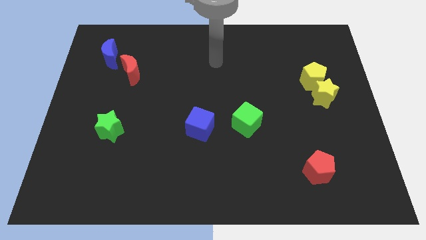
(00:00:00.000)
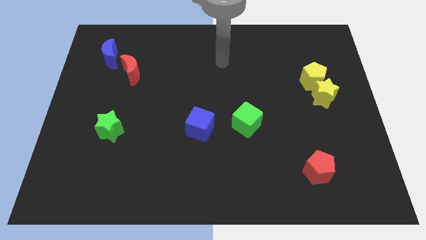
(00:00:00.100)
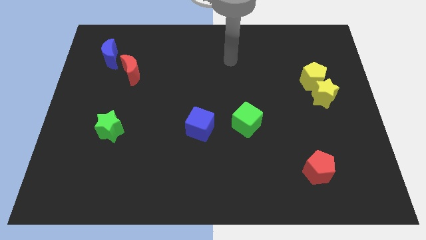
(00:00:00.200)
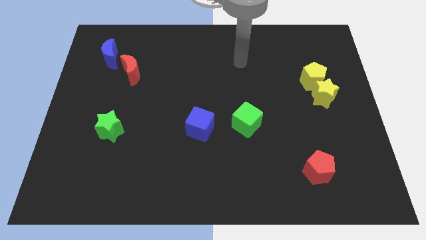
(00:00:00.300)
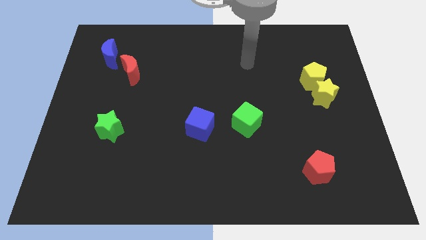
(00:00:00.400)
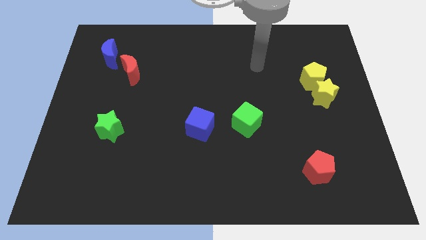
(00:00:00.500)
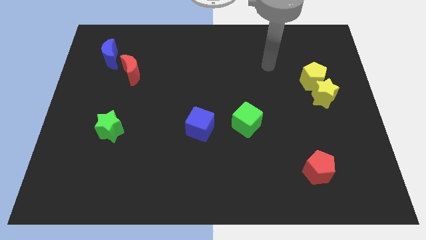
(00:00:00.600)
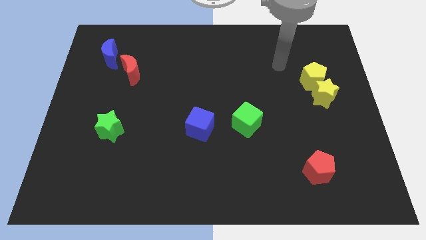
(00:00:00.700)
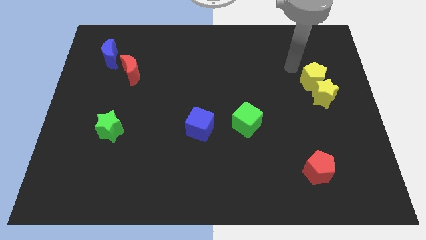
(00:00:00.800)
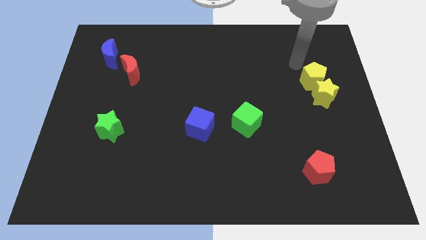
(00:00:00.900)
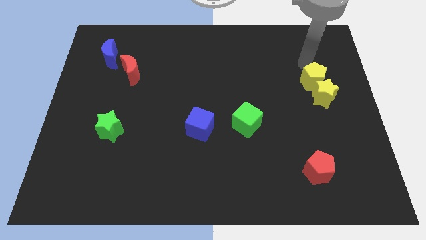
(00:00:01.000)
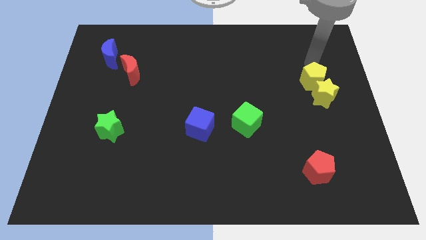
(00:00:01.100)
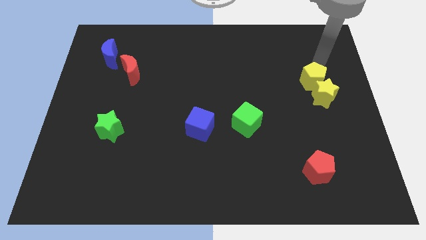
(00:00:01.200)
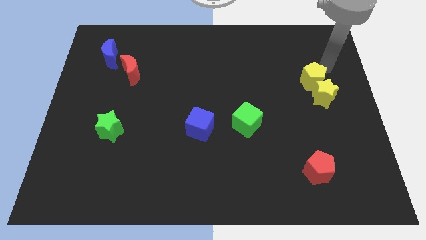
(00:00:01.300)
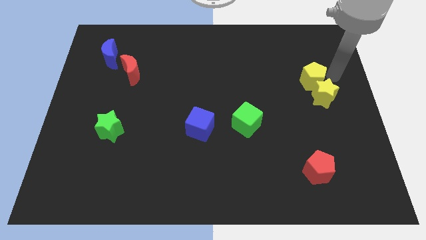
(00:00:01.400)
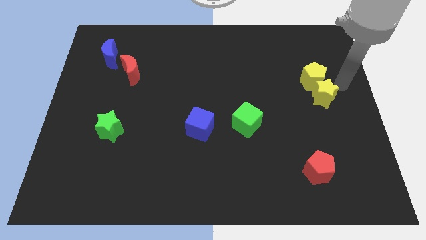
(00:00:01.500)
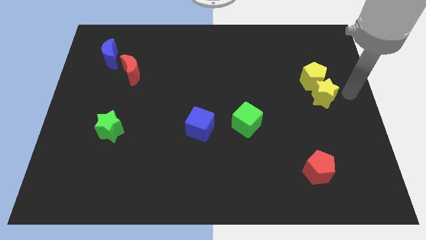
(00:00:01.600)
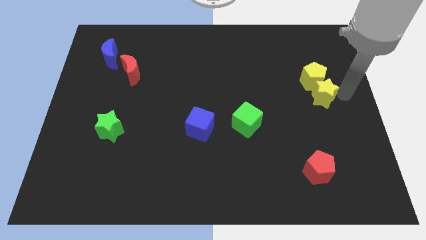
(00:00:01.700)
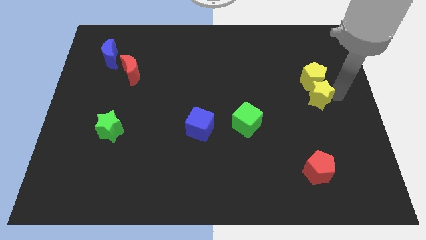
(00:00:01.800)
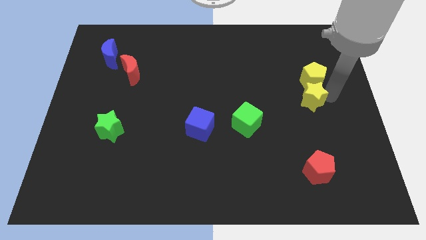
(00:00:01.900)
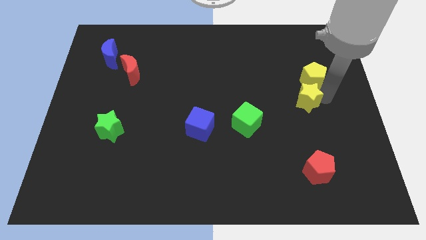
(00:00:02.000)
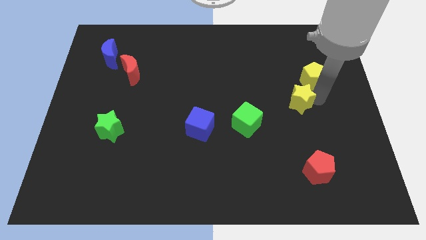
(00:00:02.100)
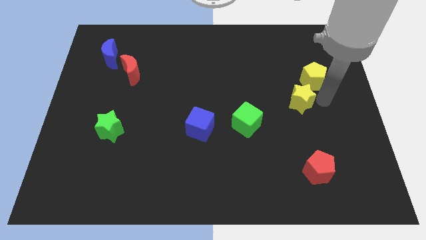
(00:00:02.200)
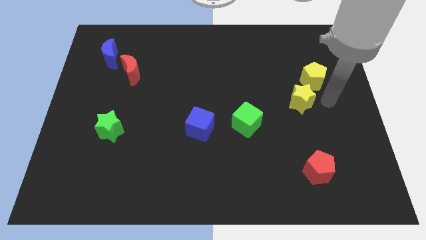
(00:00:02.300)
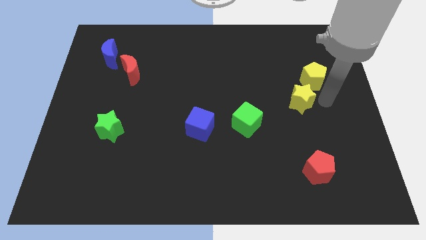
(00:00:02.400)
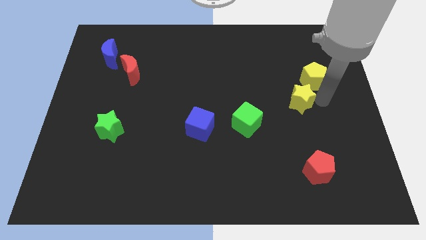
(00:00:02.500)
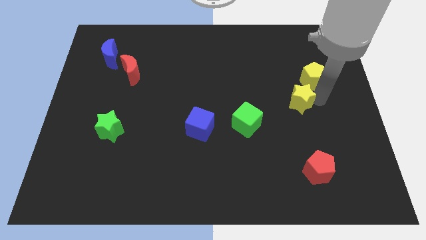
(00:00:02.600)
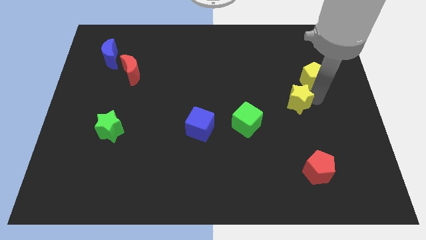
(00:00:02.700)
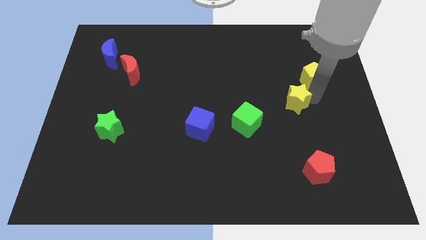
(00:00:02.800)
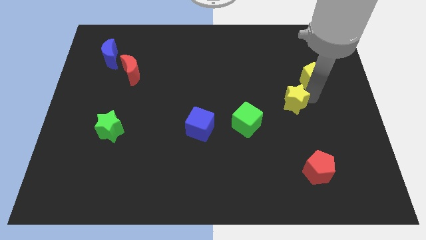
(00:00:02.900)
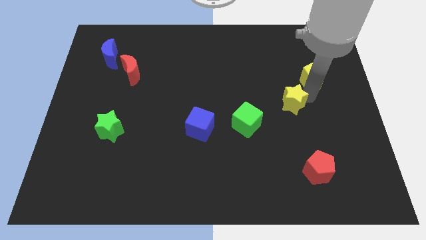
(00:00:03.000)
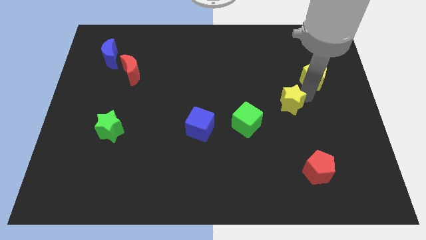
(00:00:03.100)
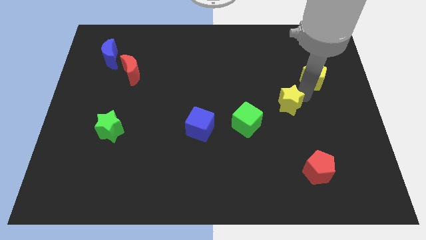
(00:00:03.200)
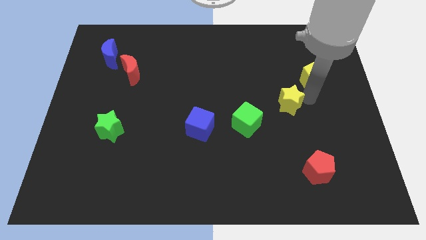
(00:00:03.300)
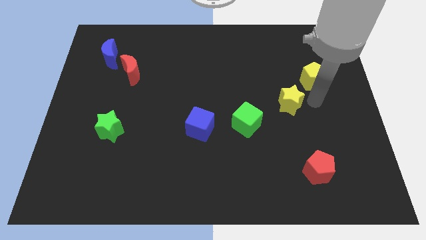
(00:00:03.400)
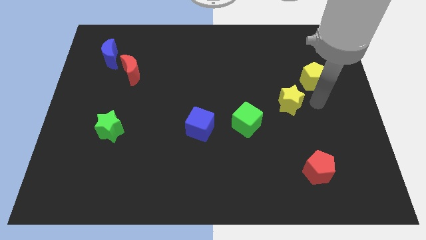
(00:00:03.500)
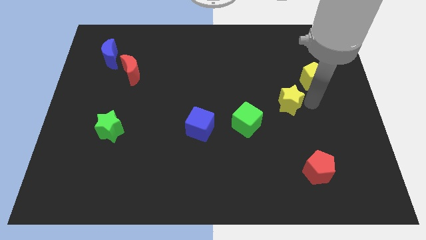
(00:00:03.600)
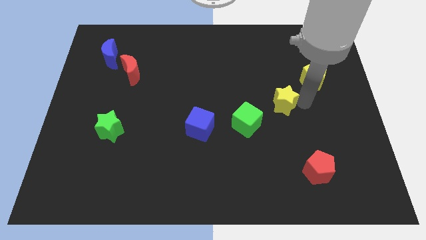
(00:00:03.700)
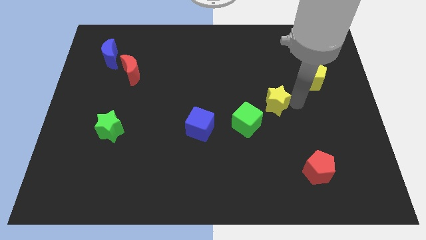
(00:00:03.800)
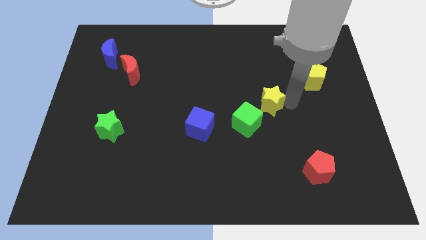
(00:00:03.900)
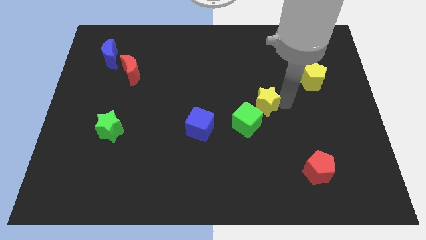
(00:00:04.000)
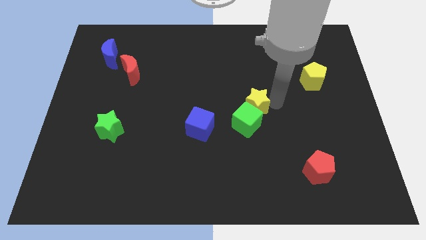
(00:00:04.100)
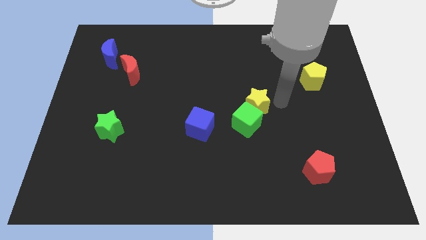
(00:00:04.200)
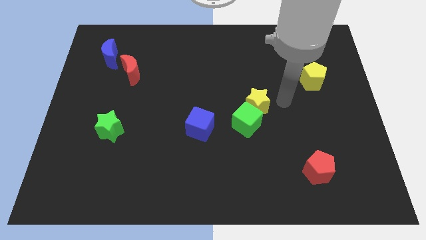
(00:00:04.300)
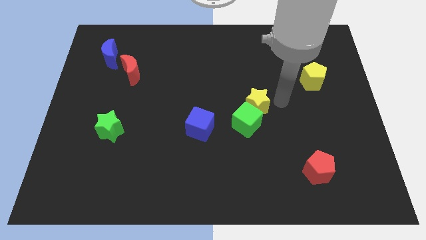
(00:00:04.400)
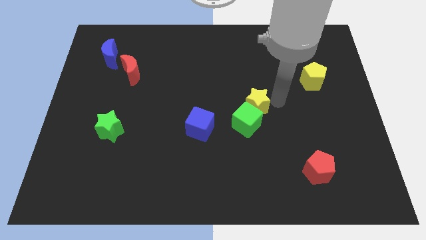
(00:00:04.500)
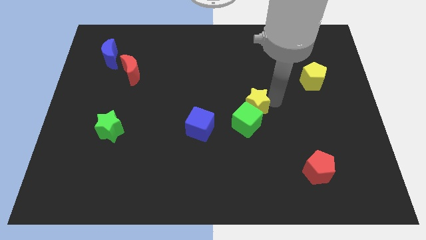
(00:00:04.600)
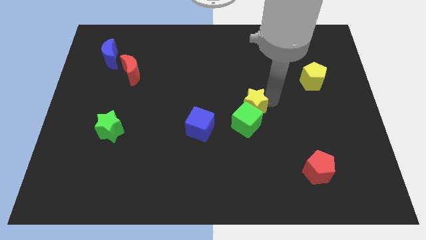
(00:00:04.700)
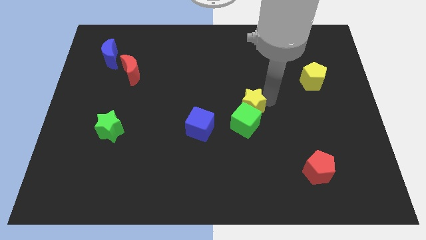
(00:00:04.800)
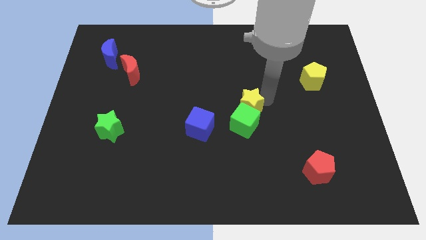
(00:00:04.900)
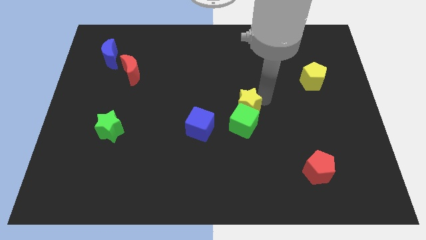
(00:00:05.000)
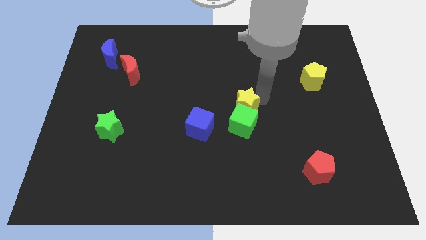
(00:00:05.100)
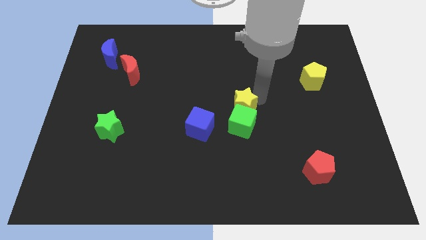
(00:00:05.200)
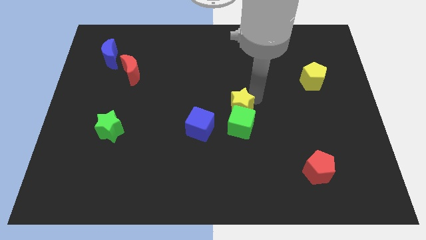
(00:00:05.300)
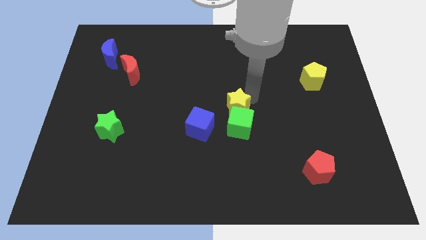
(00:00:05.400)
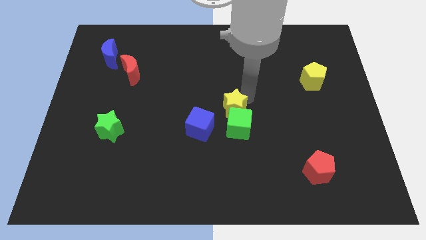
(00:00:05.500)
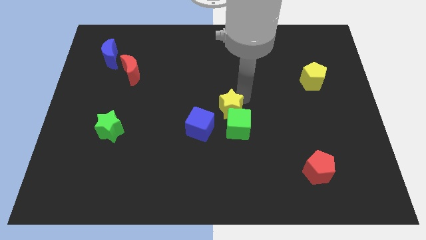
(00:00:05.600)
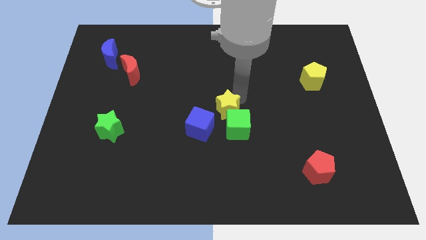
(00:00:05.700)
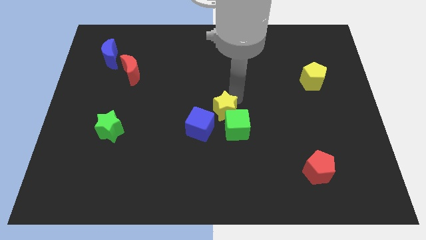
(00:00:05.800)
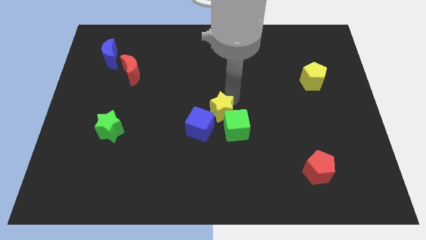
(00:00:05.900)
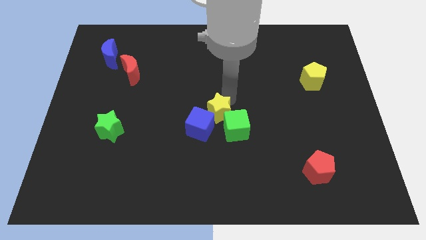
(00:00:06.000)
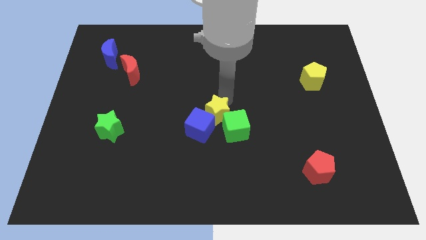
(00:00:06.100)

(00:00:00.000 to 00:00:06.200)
move the yellow star towards the blue cube

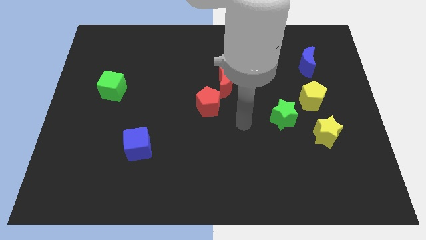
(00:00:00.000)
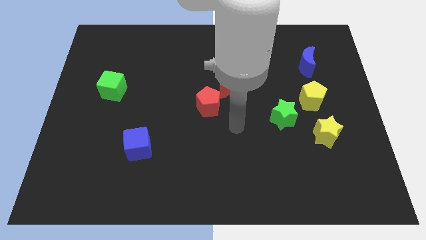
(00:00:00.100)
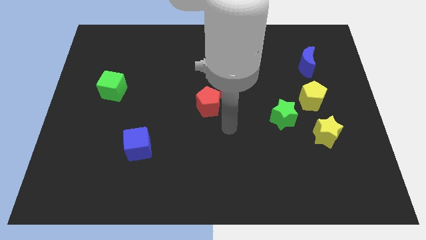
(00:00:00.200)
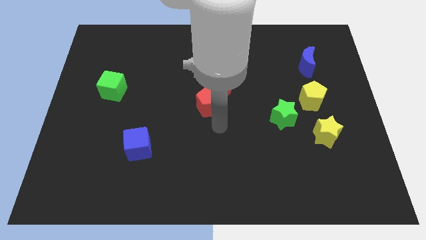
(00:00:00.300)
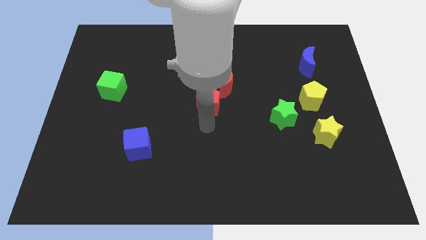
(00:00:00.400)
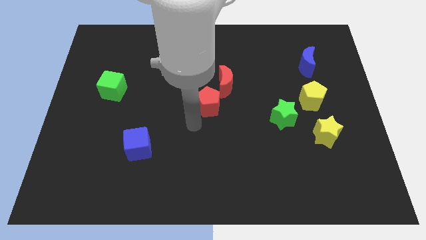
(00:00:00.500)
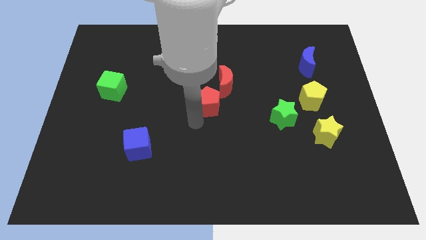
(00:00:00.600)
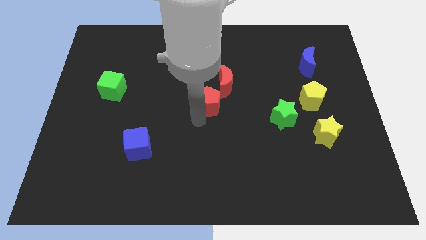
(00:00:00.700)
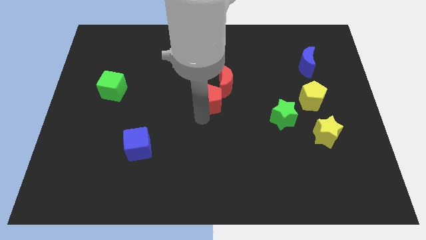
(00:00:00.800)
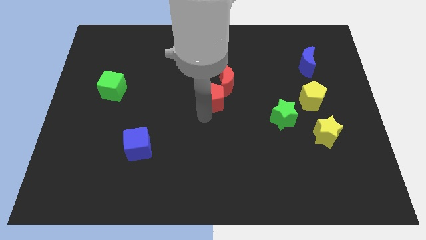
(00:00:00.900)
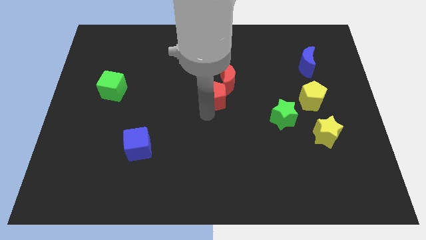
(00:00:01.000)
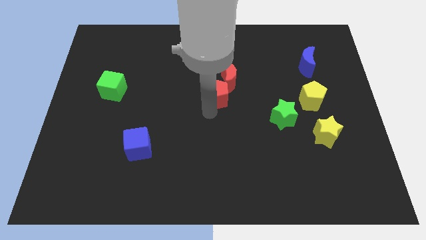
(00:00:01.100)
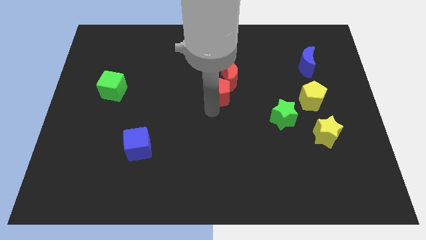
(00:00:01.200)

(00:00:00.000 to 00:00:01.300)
slide the red pentagon towards the red moon
